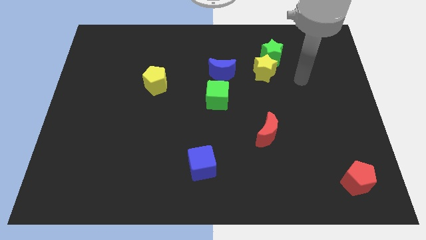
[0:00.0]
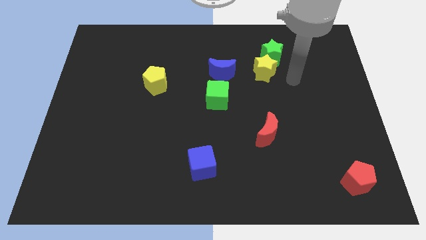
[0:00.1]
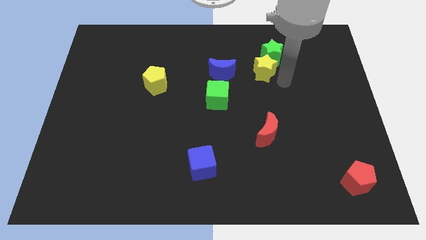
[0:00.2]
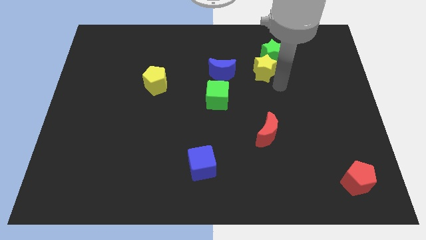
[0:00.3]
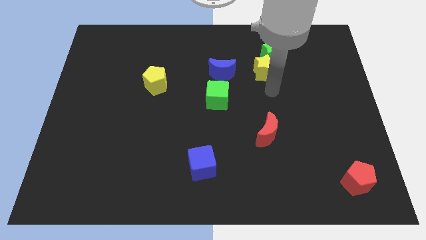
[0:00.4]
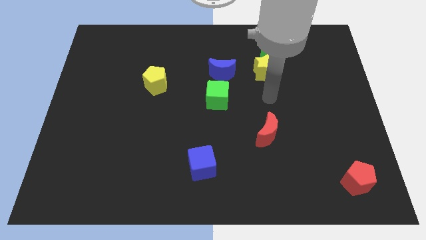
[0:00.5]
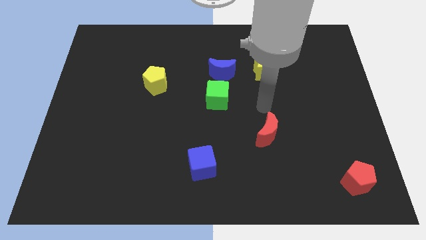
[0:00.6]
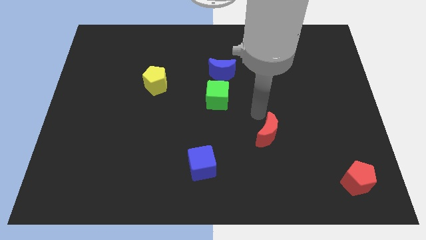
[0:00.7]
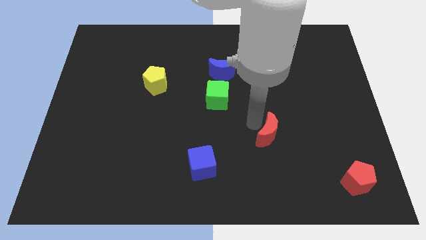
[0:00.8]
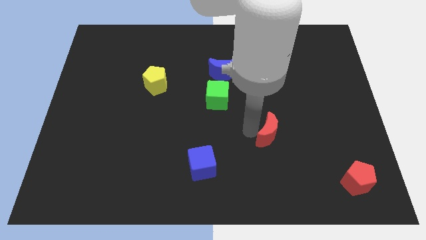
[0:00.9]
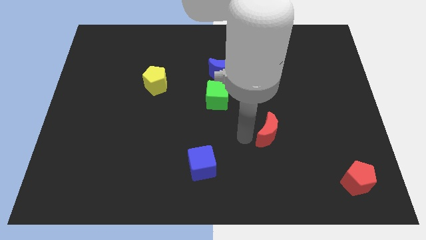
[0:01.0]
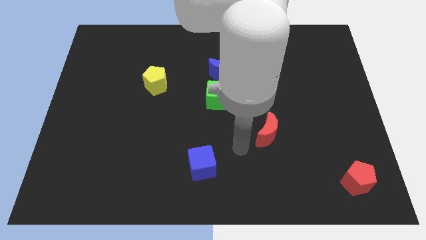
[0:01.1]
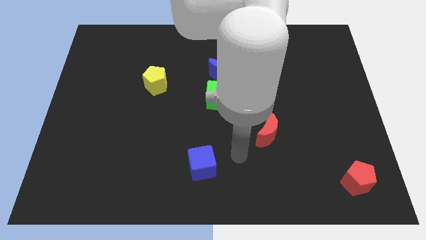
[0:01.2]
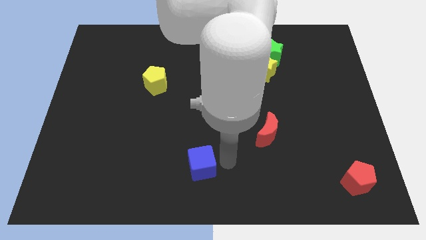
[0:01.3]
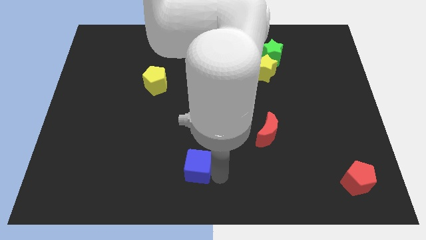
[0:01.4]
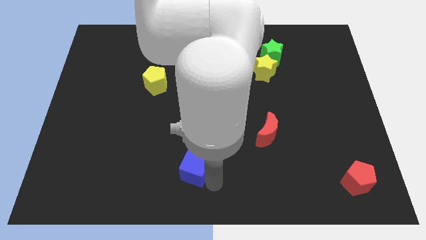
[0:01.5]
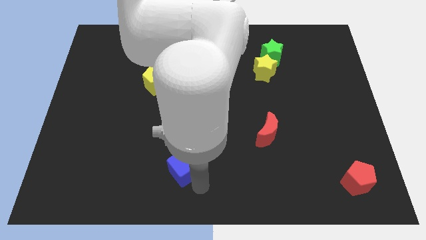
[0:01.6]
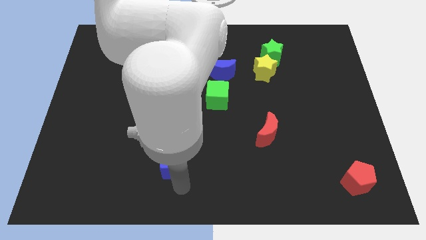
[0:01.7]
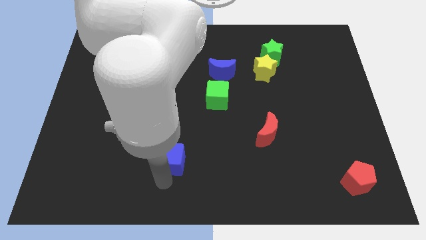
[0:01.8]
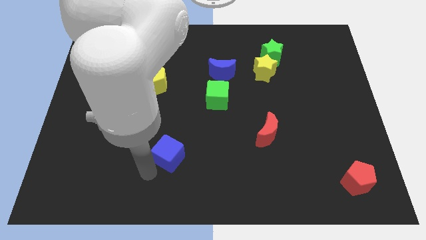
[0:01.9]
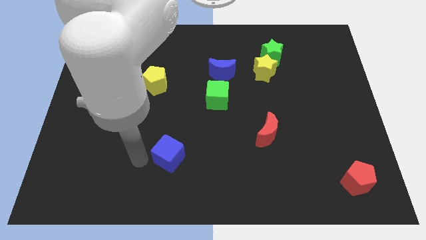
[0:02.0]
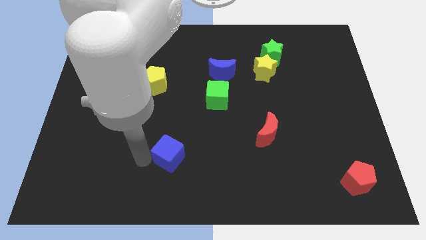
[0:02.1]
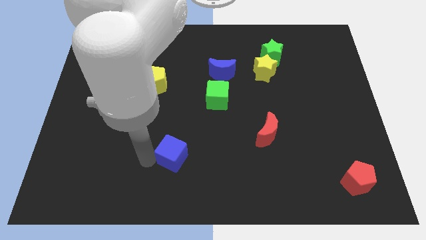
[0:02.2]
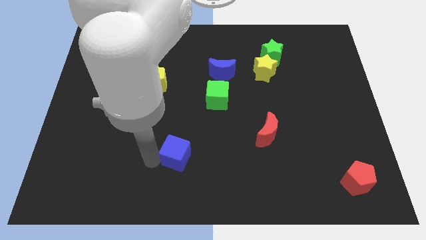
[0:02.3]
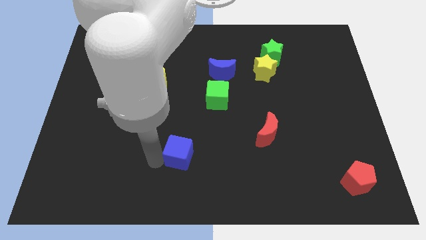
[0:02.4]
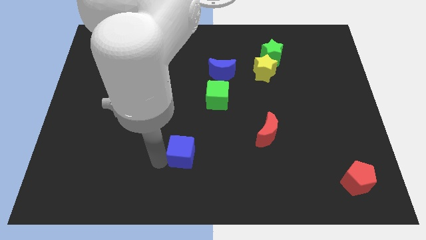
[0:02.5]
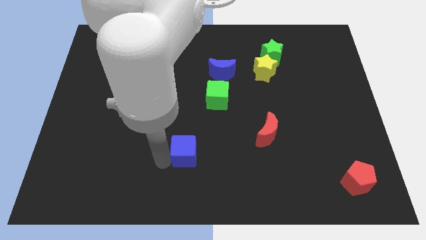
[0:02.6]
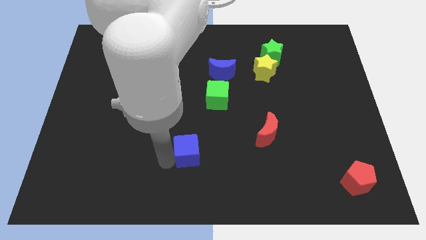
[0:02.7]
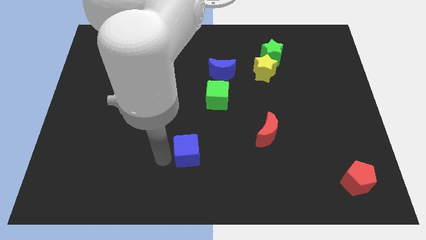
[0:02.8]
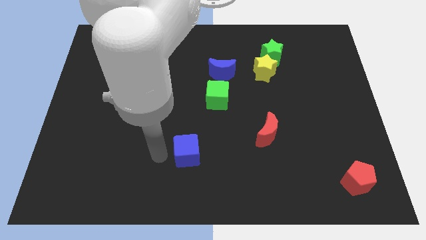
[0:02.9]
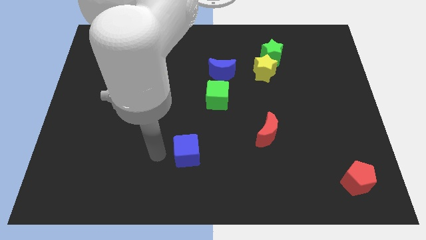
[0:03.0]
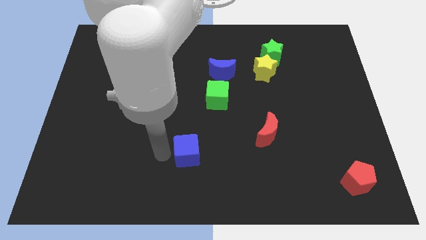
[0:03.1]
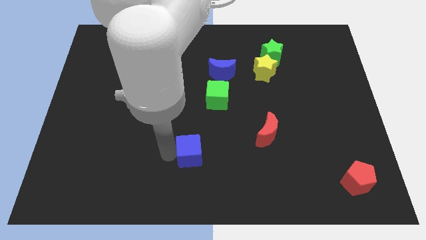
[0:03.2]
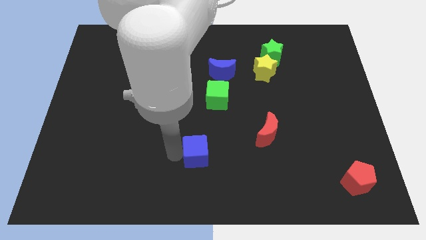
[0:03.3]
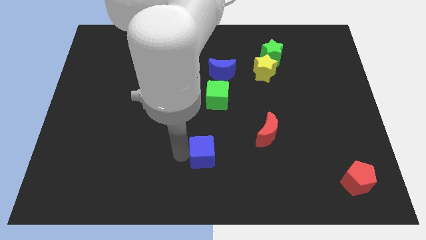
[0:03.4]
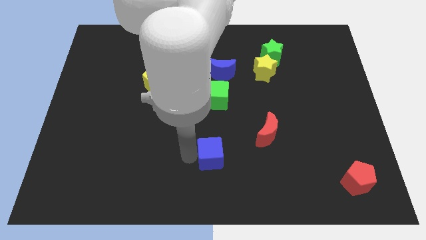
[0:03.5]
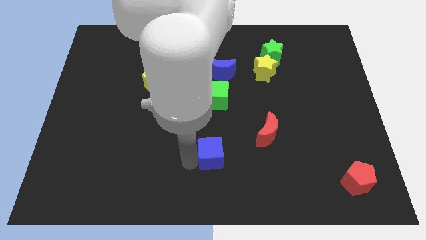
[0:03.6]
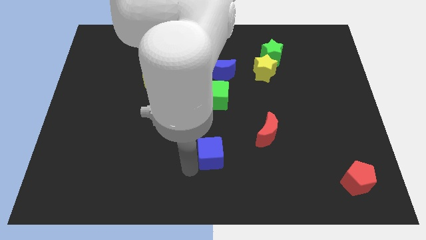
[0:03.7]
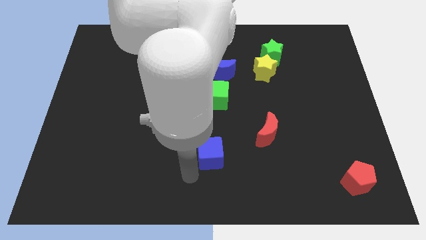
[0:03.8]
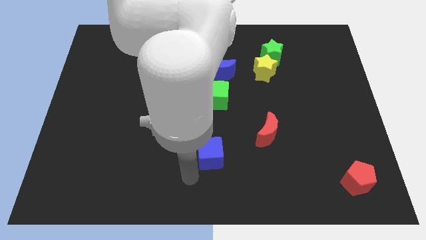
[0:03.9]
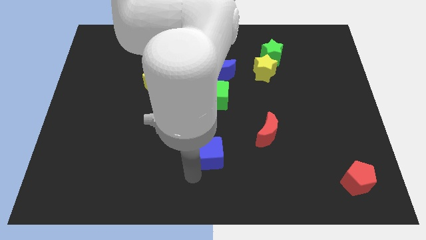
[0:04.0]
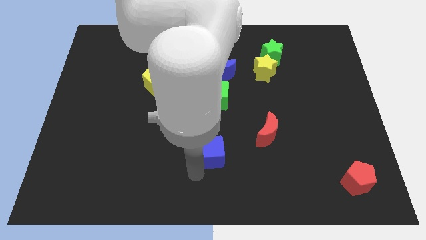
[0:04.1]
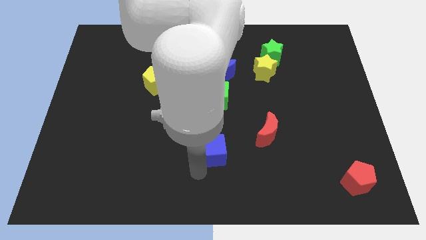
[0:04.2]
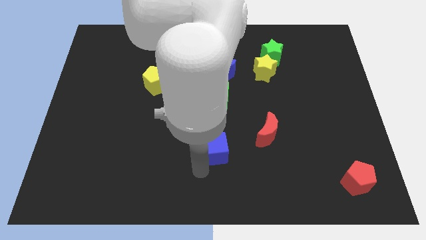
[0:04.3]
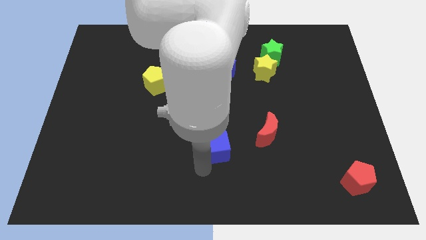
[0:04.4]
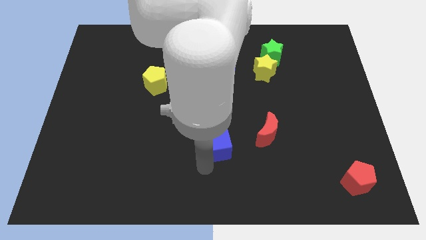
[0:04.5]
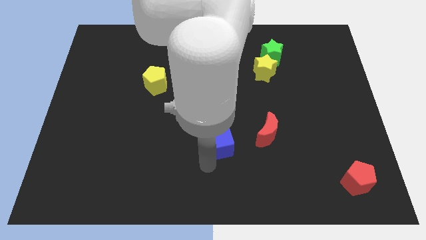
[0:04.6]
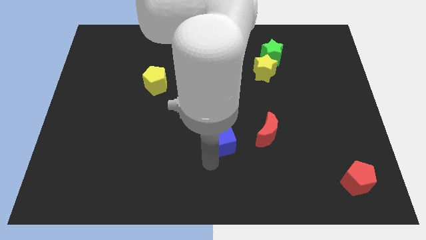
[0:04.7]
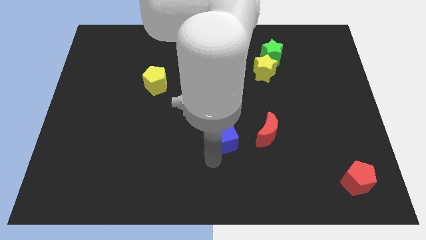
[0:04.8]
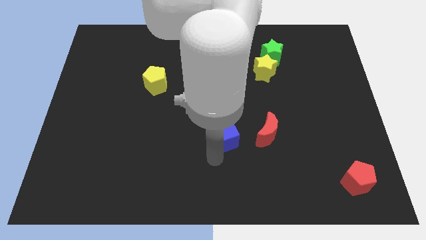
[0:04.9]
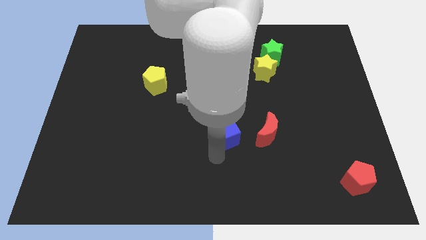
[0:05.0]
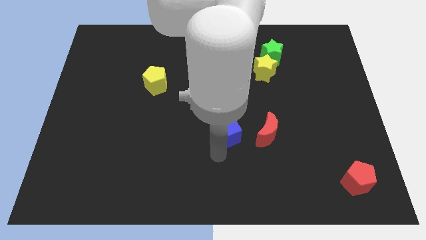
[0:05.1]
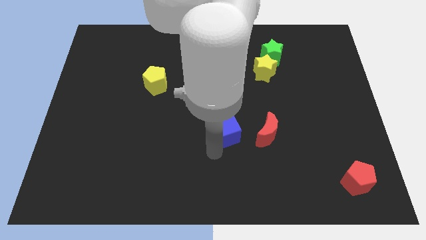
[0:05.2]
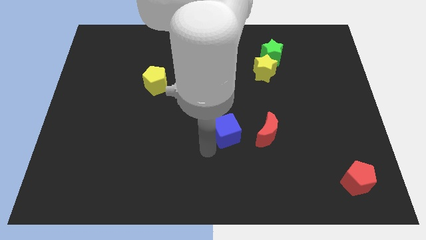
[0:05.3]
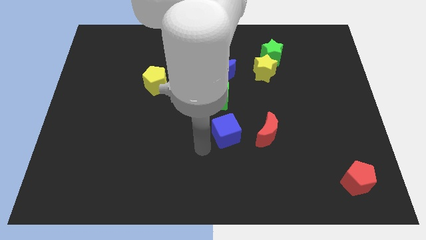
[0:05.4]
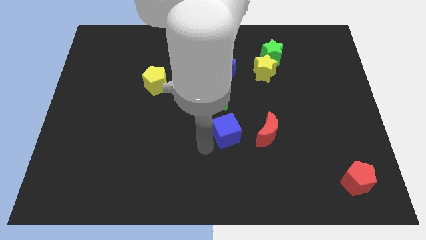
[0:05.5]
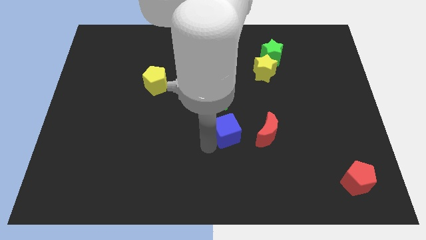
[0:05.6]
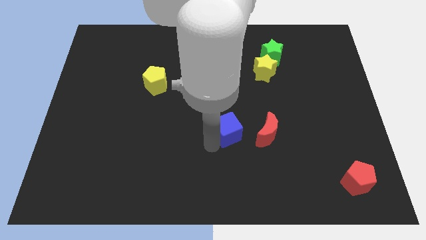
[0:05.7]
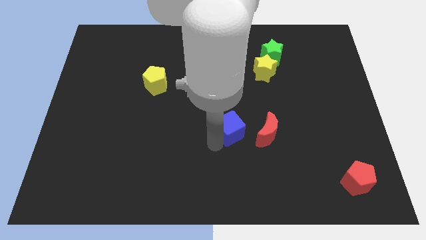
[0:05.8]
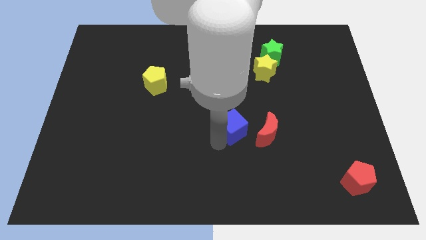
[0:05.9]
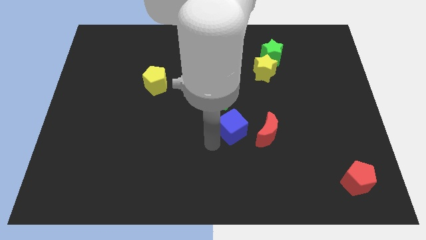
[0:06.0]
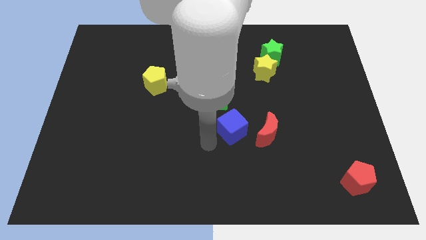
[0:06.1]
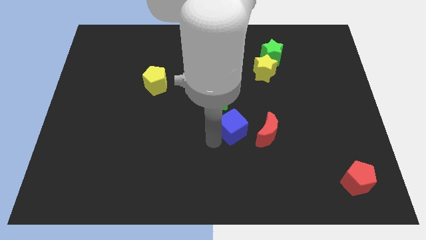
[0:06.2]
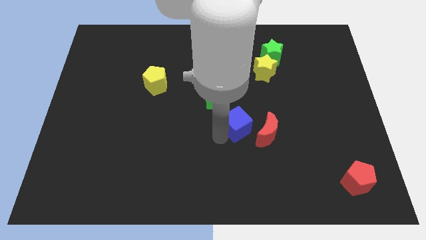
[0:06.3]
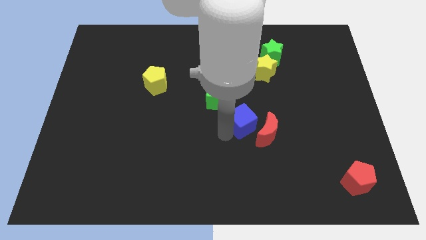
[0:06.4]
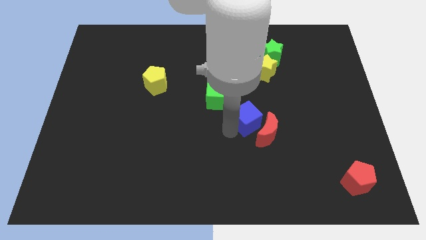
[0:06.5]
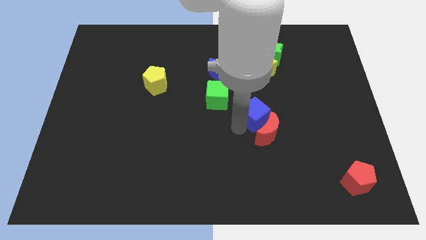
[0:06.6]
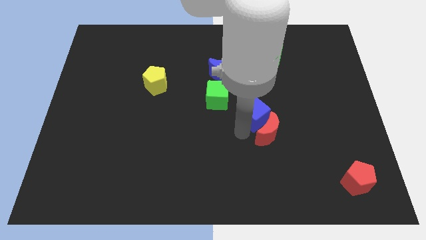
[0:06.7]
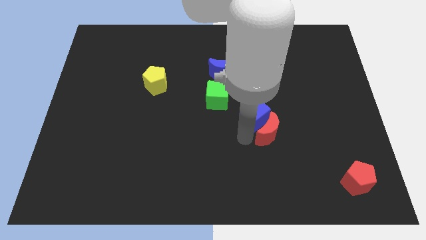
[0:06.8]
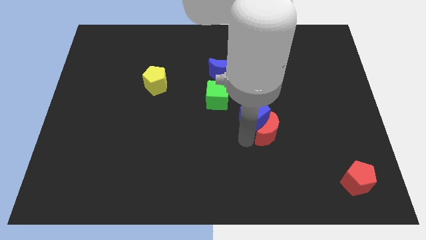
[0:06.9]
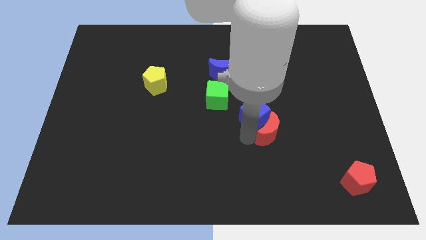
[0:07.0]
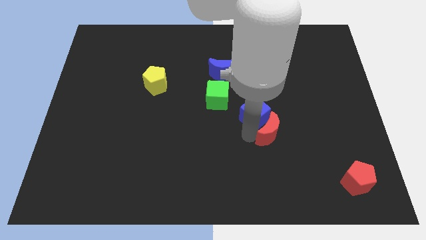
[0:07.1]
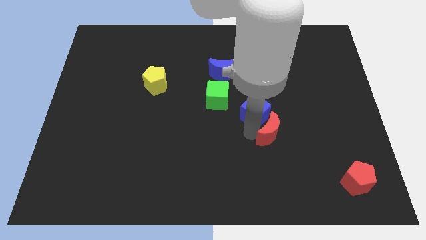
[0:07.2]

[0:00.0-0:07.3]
slide the blue cube right of the green cube
